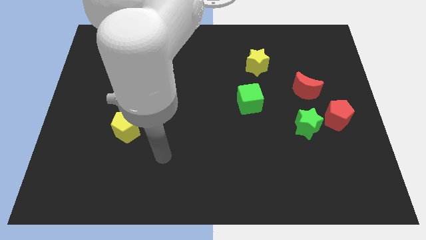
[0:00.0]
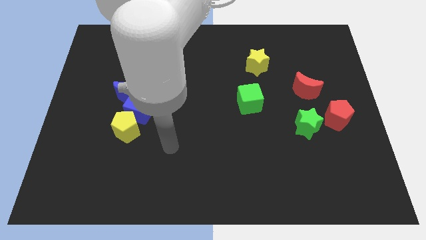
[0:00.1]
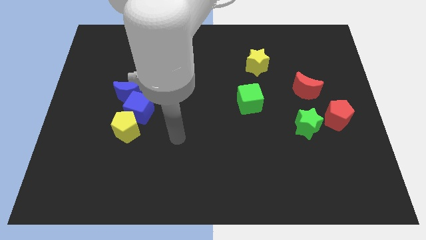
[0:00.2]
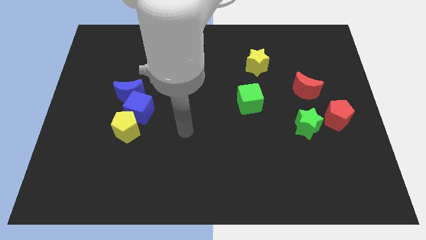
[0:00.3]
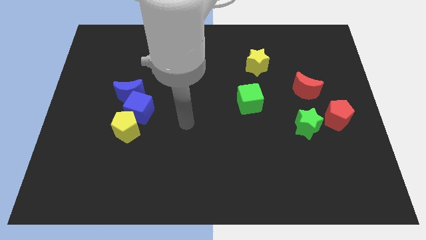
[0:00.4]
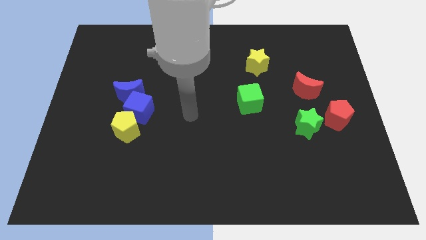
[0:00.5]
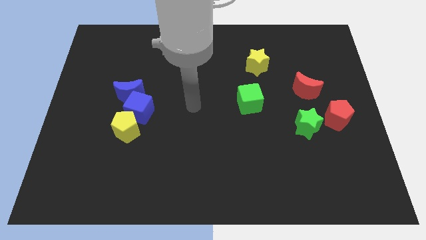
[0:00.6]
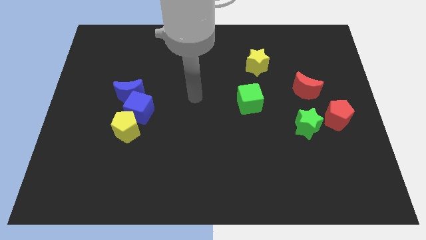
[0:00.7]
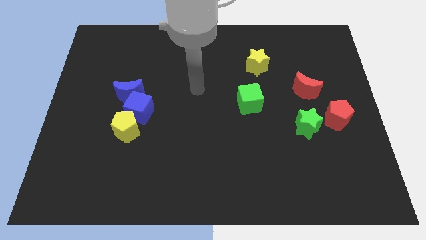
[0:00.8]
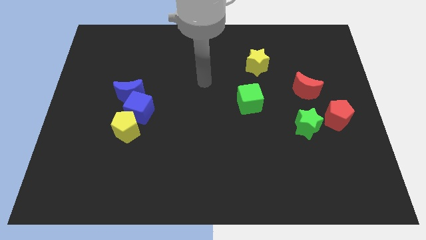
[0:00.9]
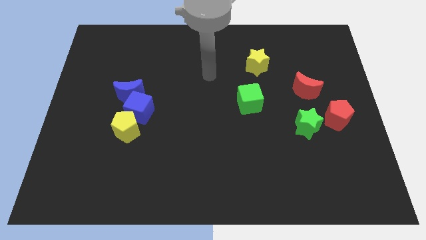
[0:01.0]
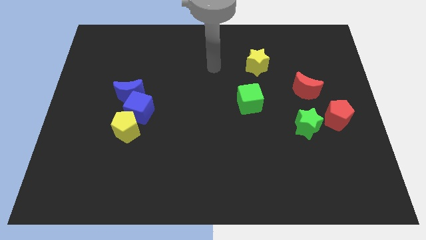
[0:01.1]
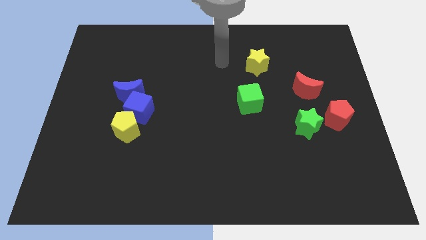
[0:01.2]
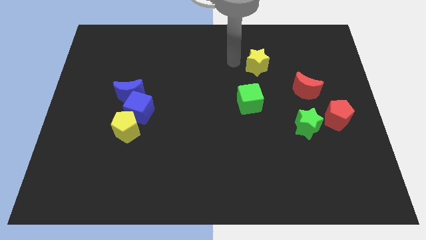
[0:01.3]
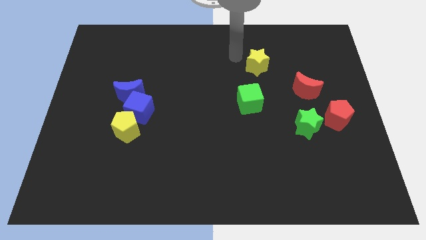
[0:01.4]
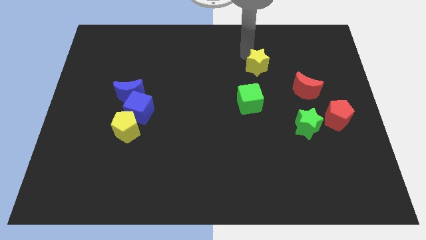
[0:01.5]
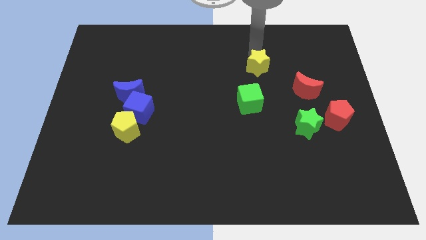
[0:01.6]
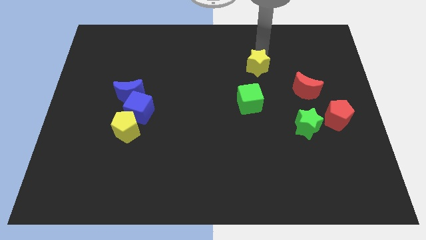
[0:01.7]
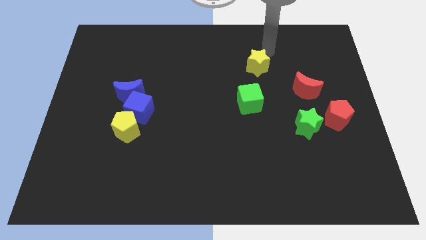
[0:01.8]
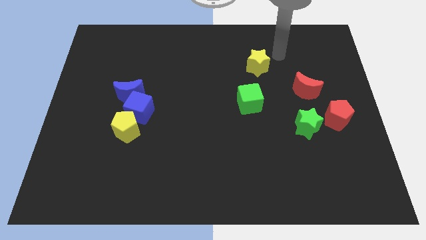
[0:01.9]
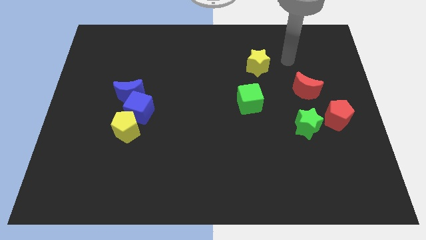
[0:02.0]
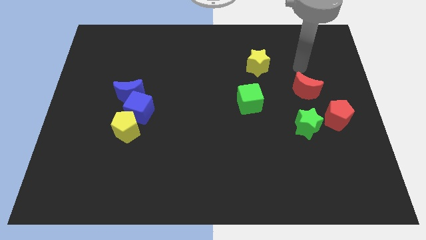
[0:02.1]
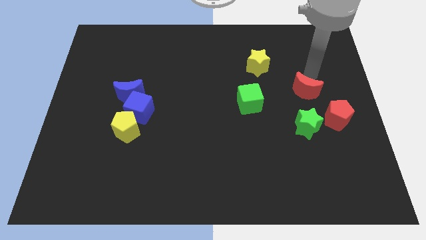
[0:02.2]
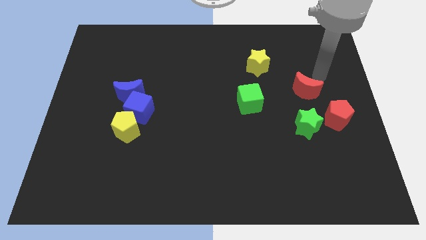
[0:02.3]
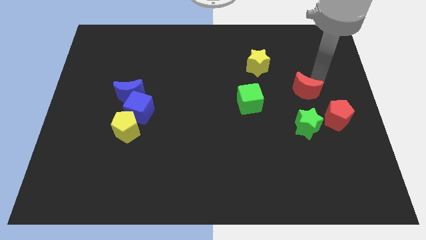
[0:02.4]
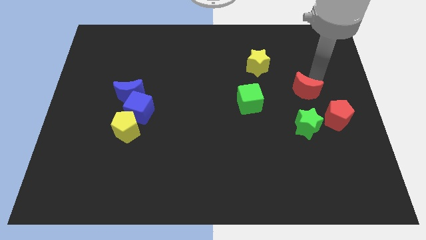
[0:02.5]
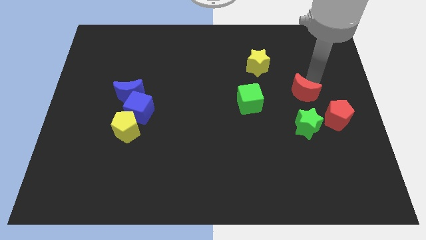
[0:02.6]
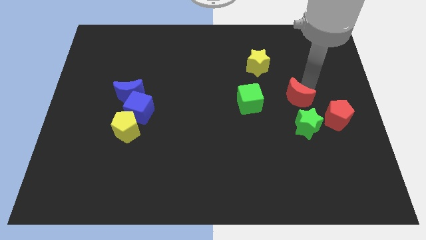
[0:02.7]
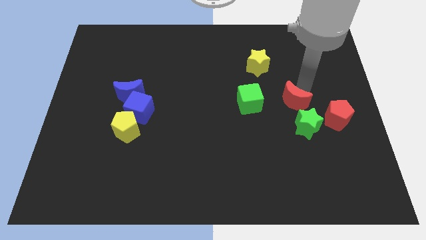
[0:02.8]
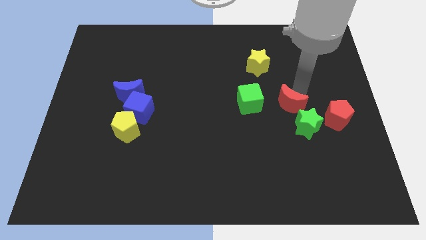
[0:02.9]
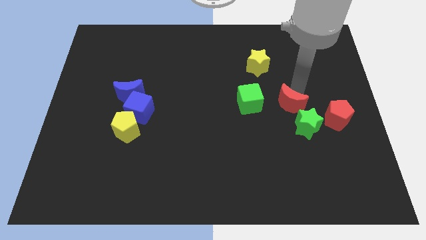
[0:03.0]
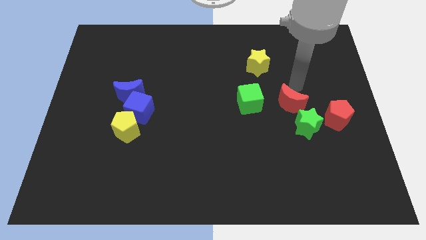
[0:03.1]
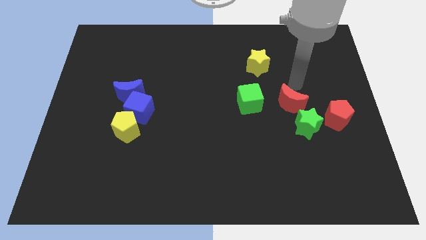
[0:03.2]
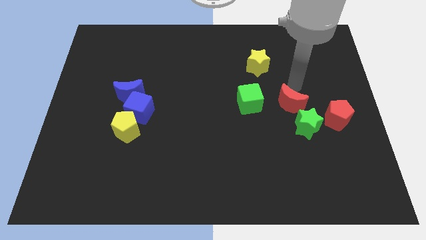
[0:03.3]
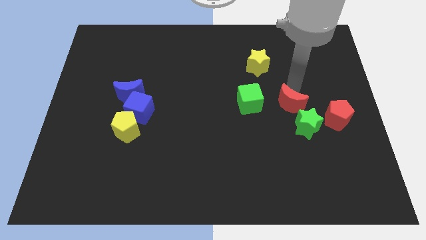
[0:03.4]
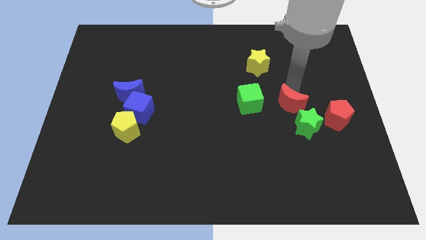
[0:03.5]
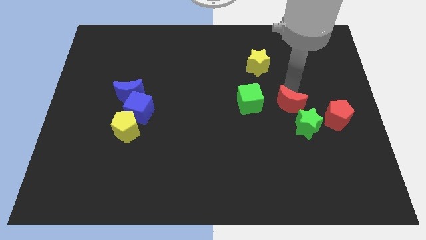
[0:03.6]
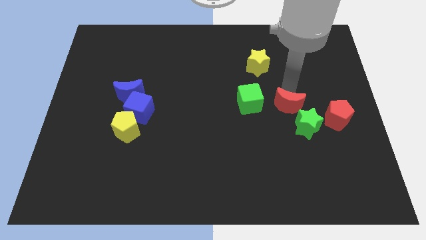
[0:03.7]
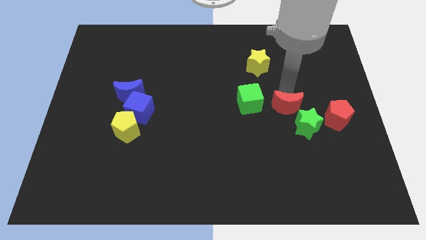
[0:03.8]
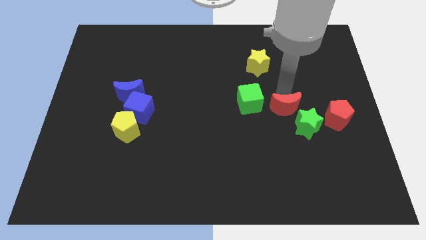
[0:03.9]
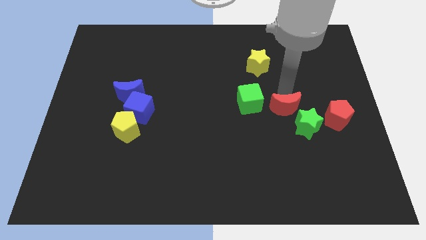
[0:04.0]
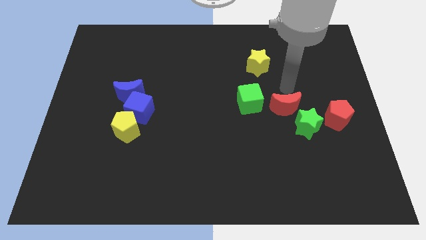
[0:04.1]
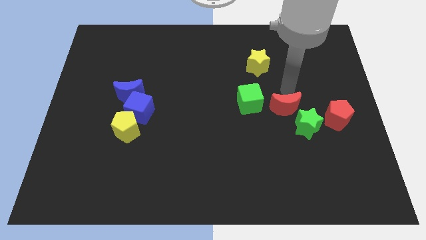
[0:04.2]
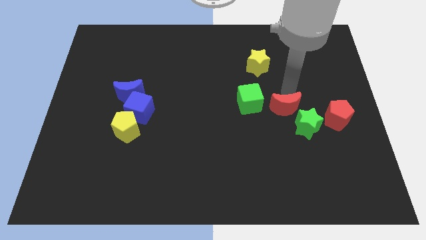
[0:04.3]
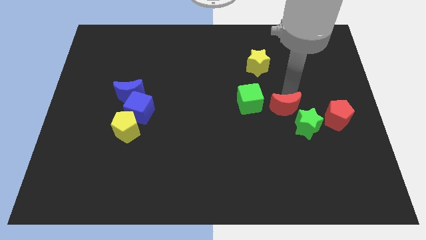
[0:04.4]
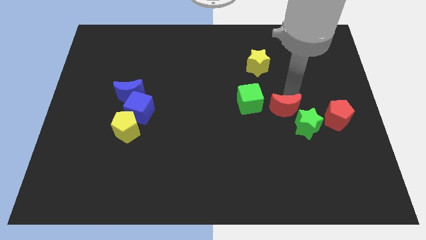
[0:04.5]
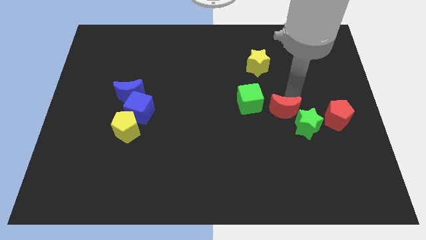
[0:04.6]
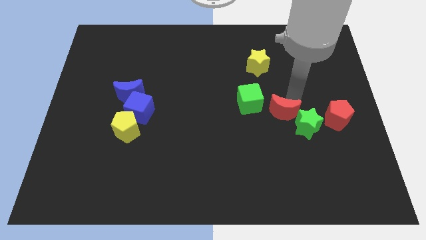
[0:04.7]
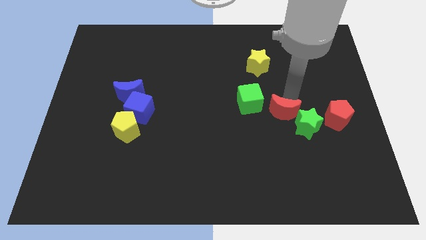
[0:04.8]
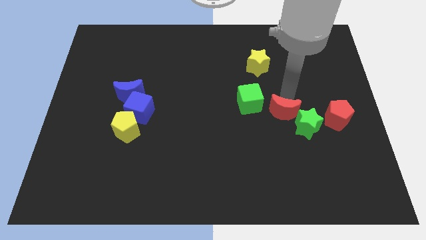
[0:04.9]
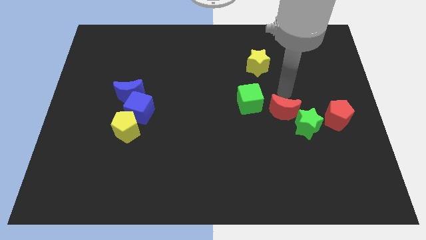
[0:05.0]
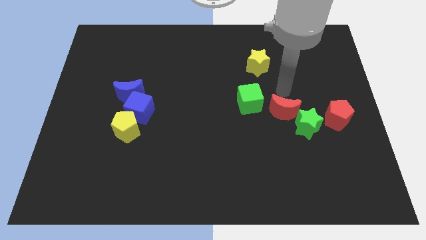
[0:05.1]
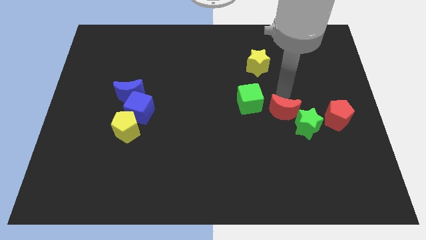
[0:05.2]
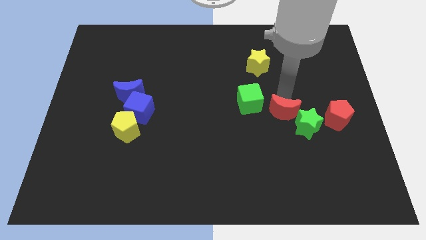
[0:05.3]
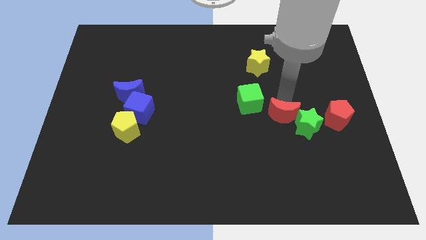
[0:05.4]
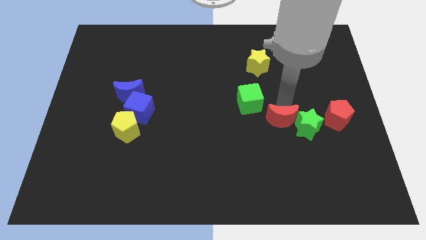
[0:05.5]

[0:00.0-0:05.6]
slightly move the red moon down

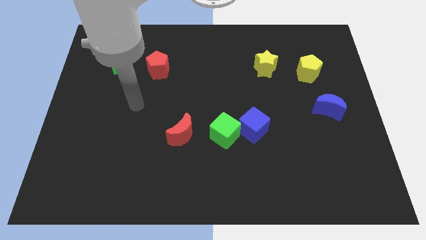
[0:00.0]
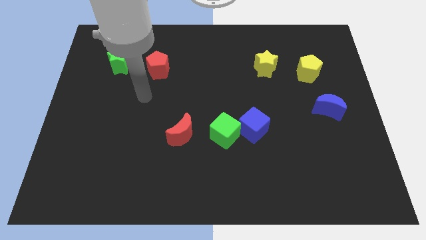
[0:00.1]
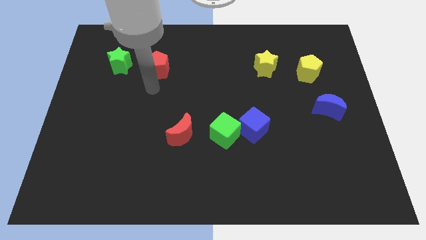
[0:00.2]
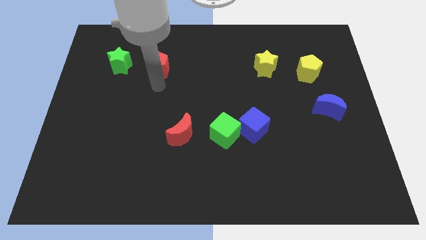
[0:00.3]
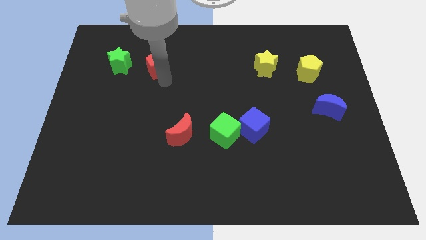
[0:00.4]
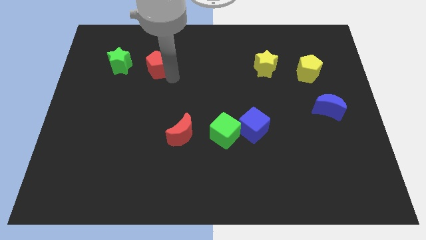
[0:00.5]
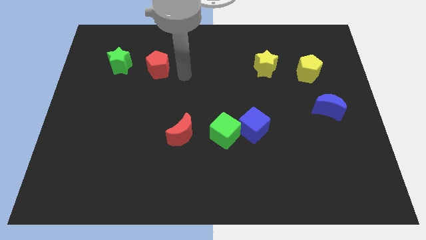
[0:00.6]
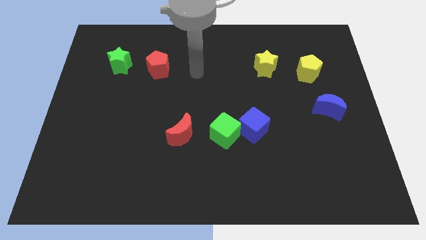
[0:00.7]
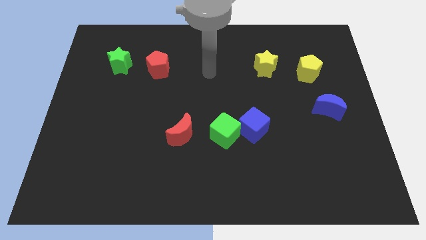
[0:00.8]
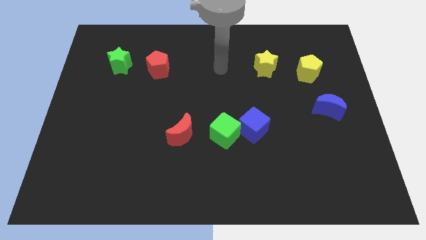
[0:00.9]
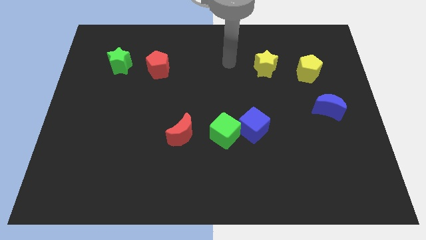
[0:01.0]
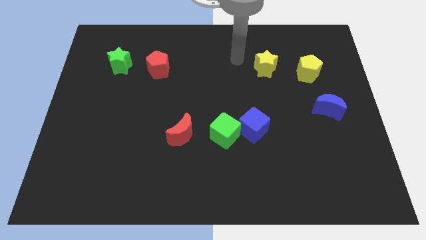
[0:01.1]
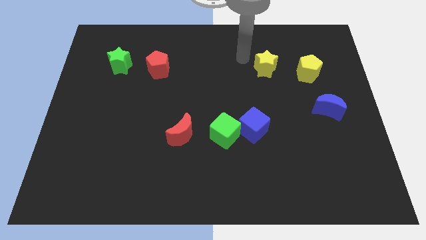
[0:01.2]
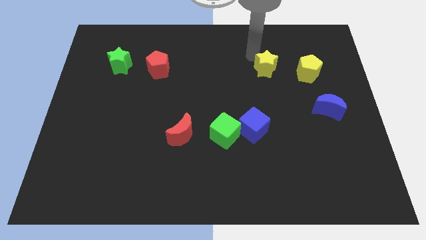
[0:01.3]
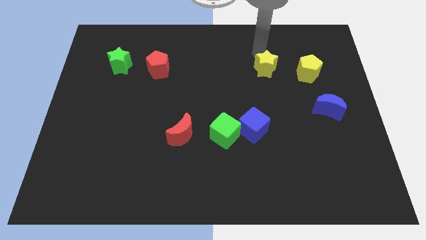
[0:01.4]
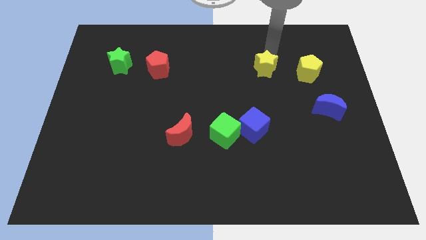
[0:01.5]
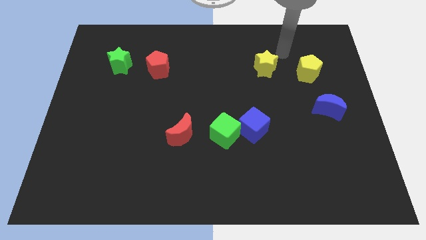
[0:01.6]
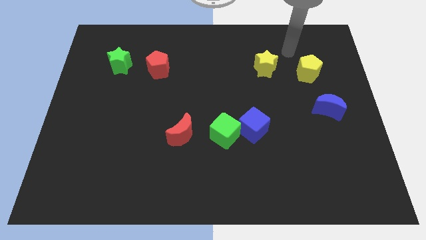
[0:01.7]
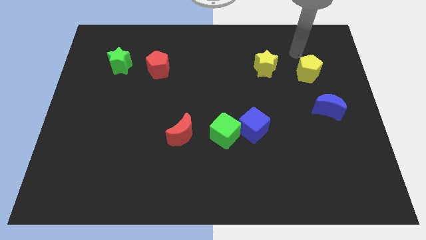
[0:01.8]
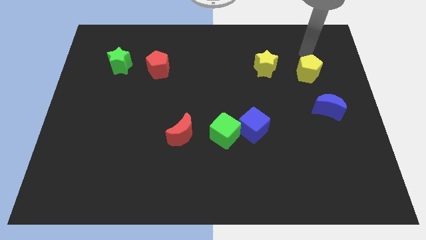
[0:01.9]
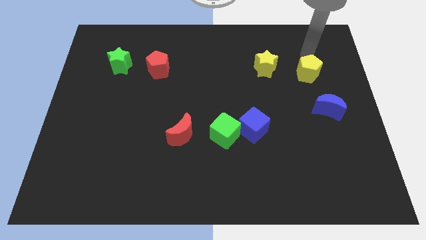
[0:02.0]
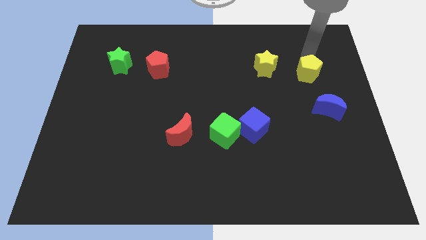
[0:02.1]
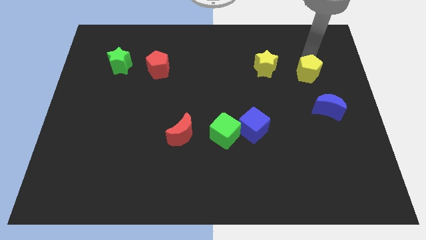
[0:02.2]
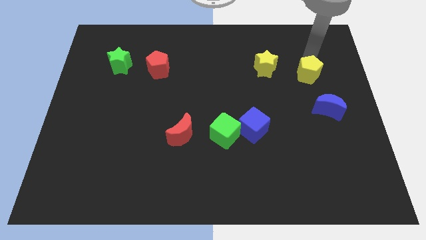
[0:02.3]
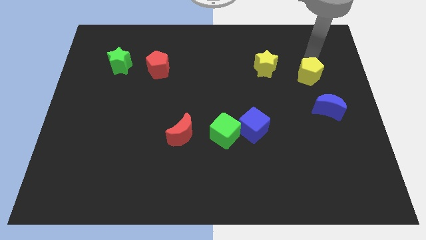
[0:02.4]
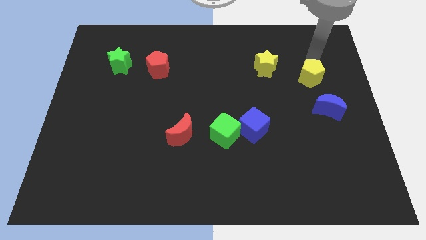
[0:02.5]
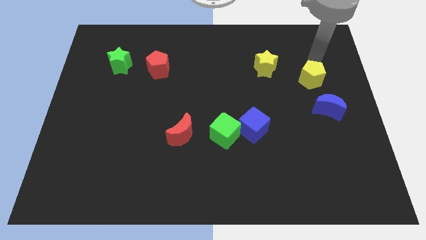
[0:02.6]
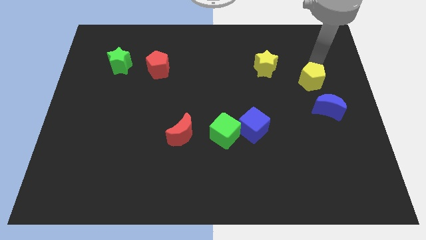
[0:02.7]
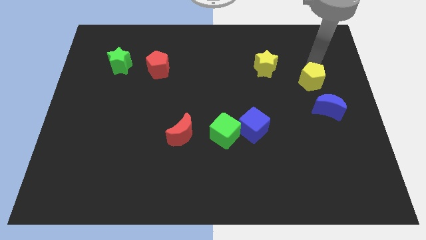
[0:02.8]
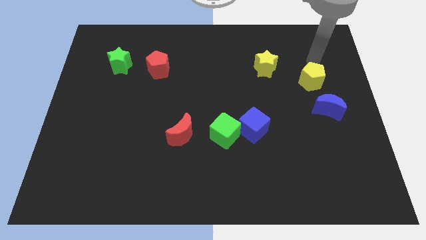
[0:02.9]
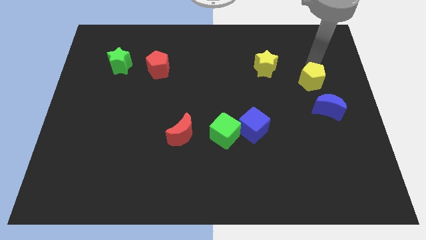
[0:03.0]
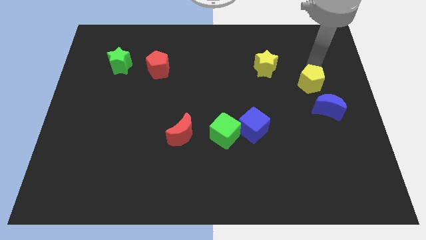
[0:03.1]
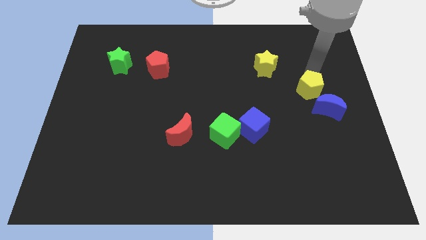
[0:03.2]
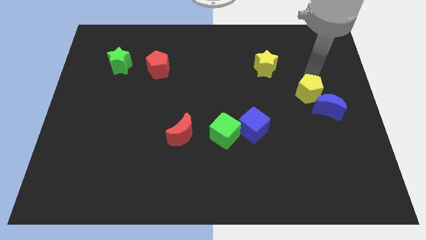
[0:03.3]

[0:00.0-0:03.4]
slightly move the yellow pentagon down
